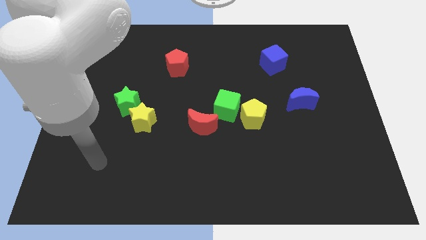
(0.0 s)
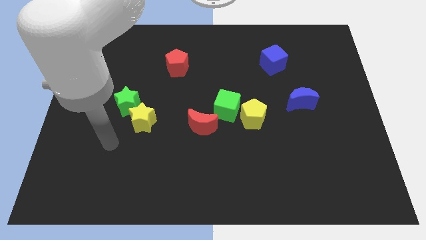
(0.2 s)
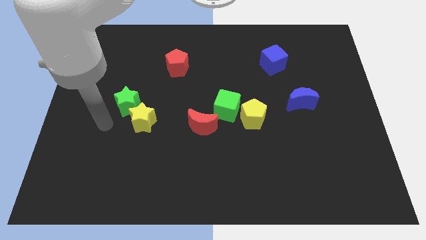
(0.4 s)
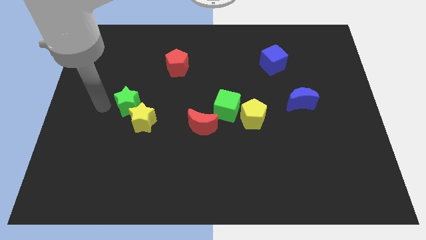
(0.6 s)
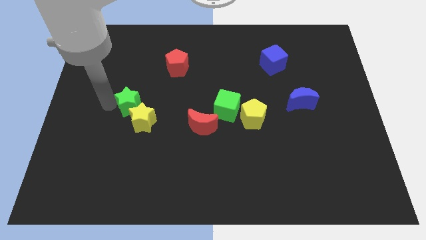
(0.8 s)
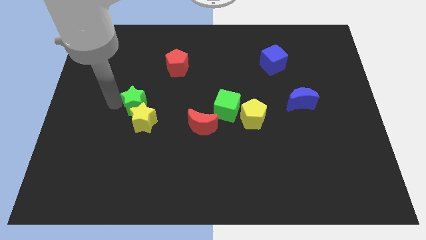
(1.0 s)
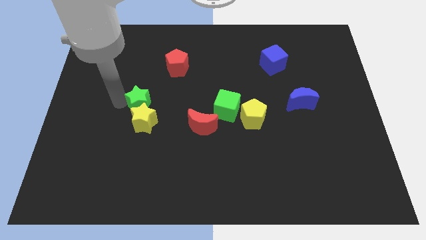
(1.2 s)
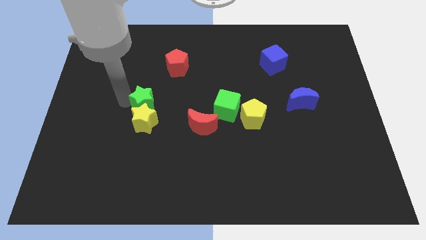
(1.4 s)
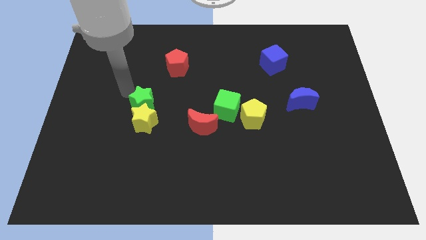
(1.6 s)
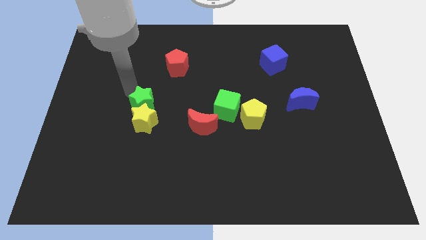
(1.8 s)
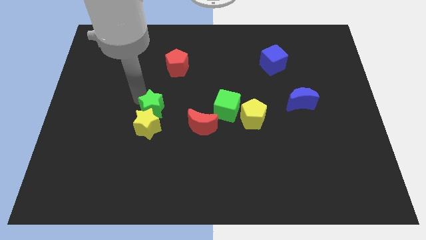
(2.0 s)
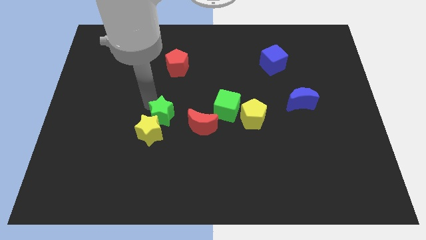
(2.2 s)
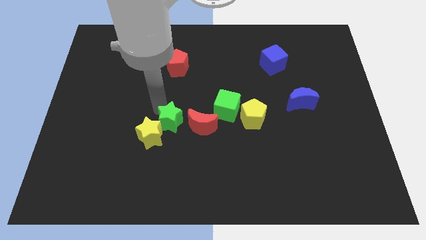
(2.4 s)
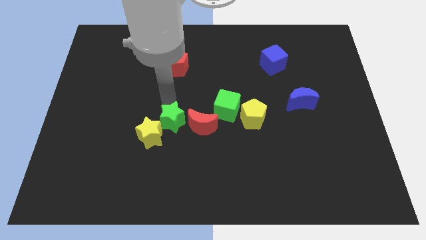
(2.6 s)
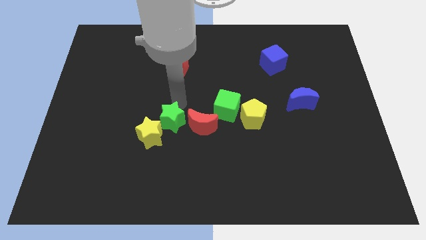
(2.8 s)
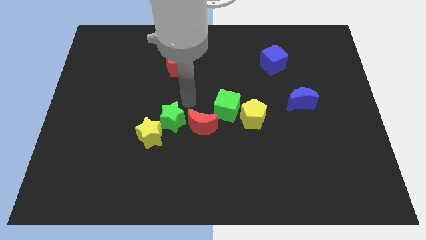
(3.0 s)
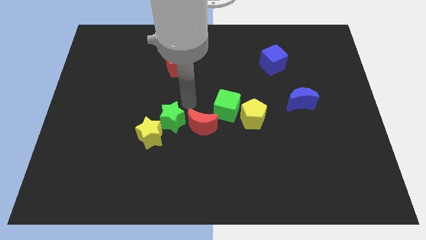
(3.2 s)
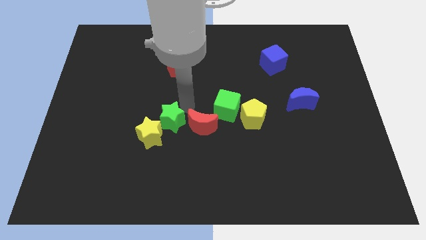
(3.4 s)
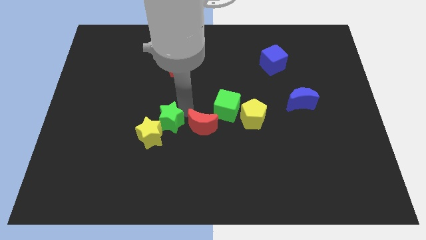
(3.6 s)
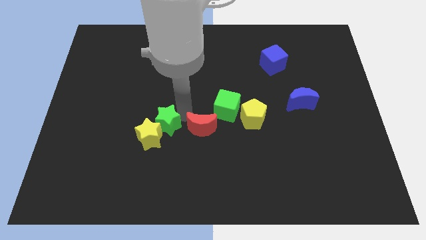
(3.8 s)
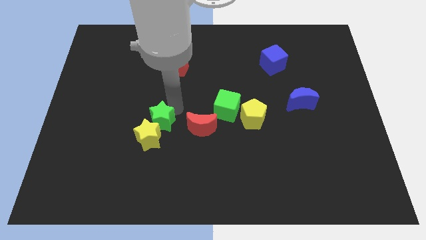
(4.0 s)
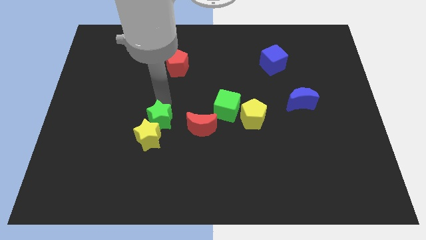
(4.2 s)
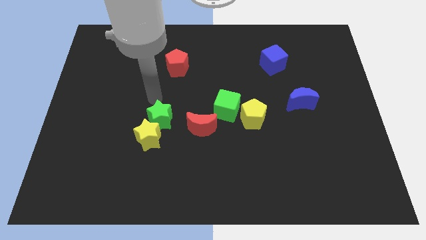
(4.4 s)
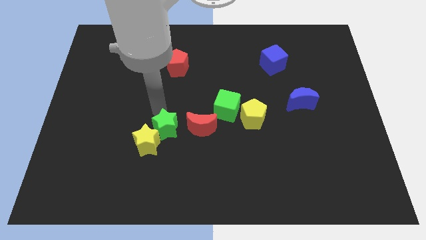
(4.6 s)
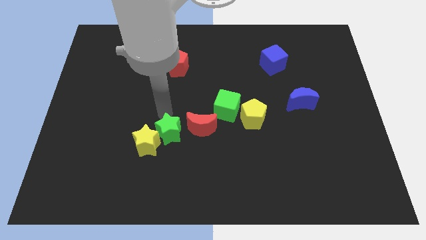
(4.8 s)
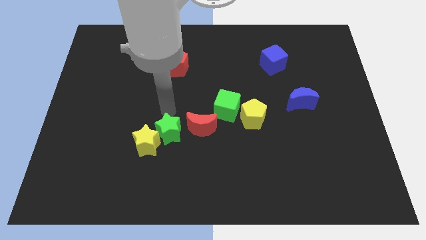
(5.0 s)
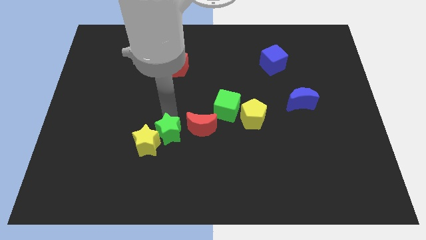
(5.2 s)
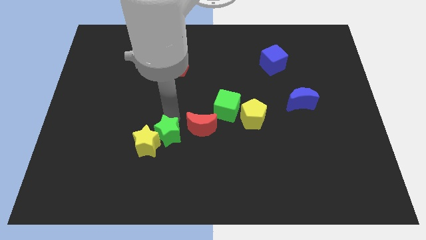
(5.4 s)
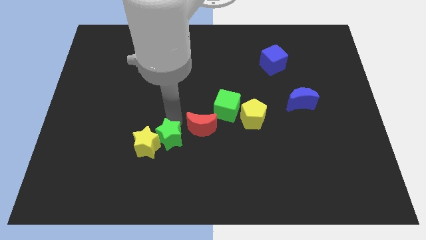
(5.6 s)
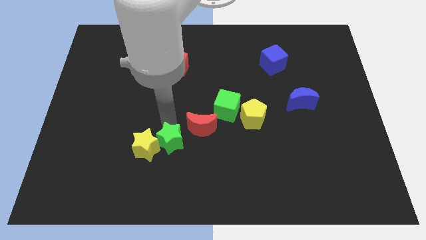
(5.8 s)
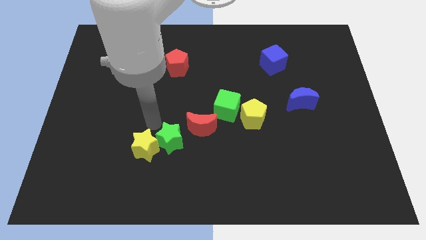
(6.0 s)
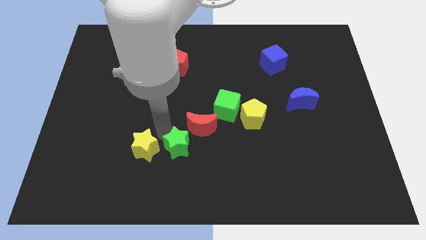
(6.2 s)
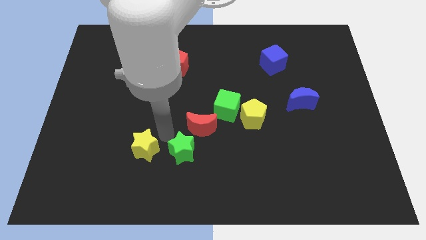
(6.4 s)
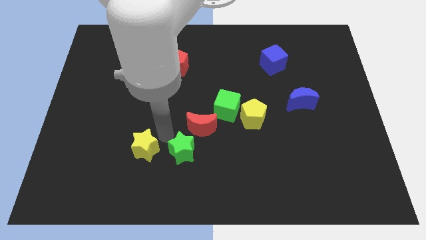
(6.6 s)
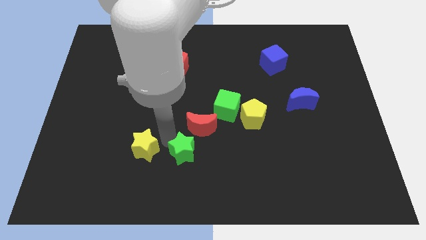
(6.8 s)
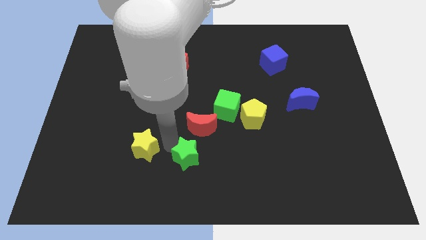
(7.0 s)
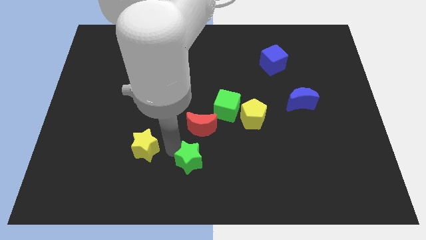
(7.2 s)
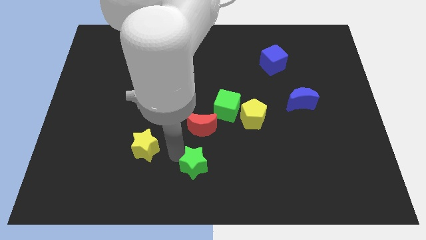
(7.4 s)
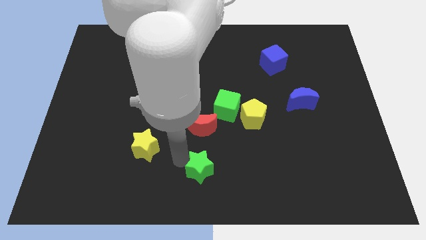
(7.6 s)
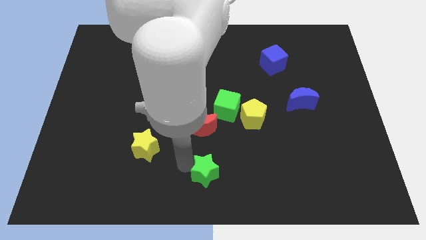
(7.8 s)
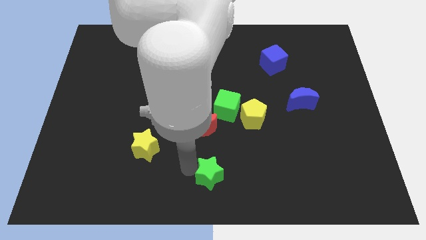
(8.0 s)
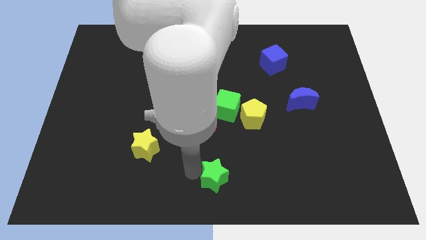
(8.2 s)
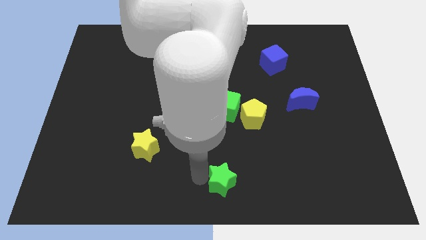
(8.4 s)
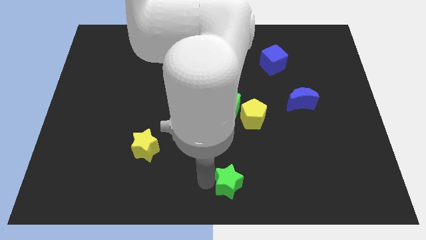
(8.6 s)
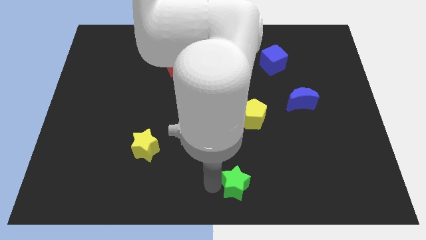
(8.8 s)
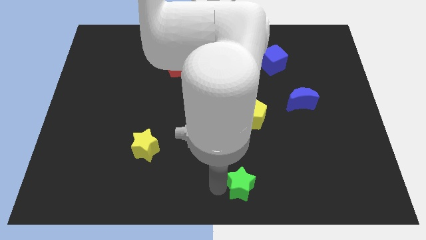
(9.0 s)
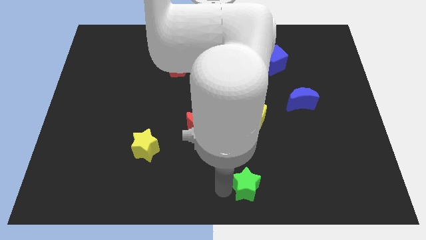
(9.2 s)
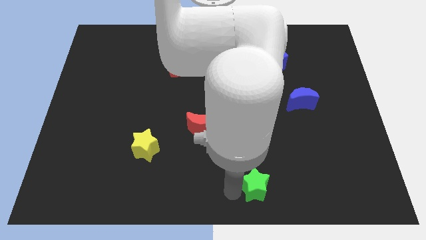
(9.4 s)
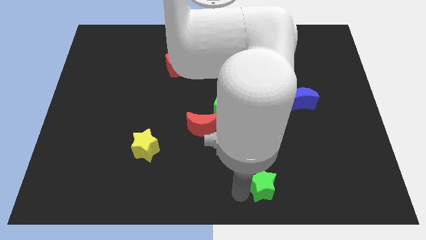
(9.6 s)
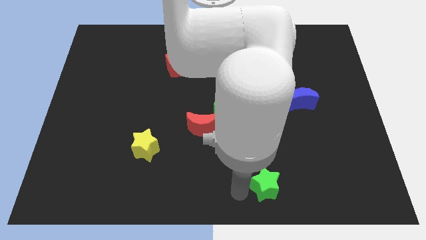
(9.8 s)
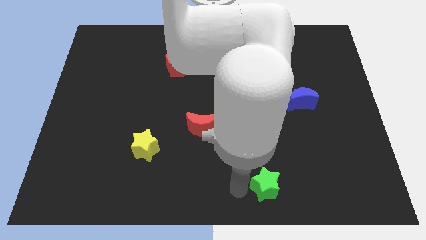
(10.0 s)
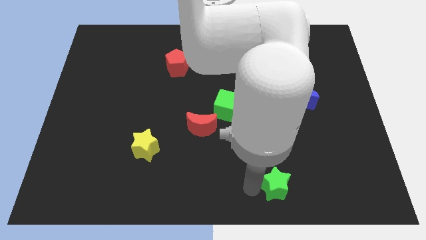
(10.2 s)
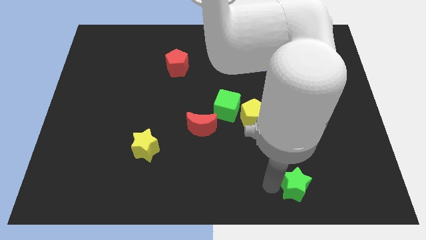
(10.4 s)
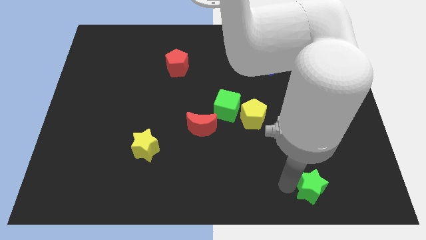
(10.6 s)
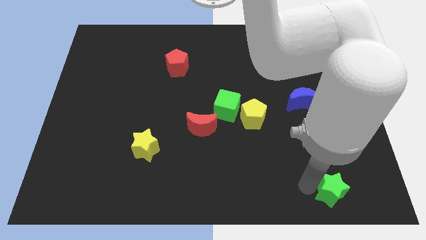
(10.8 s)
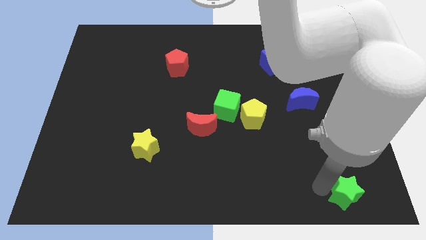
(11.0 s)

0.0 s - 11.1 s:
slide the green star to the bottom right
